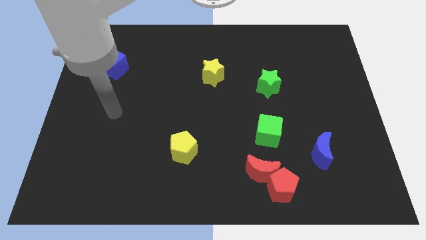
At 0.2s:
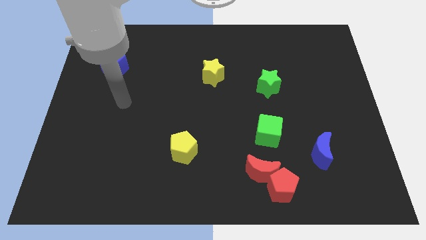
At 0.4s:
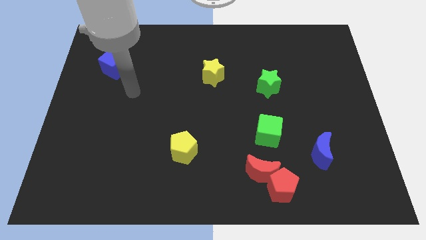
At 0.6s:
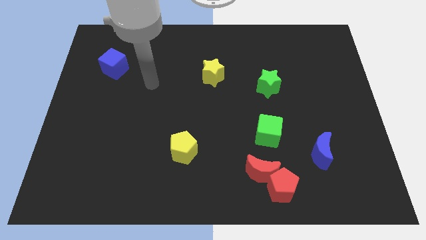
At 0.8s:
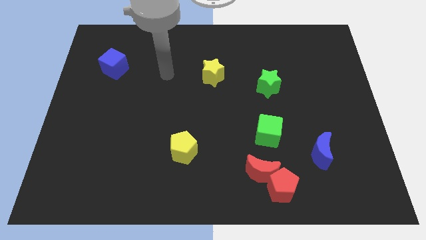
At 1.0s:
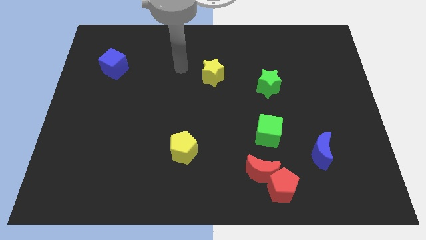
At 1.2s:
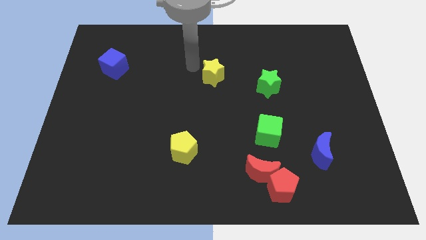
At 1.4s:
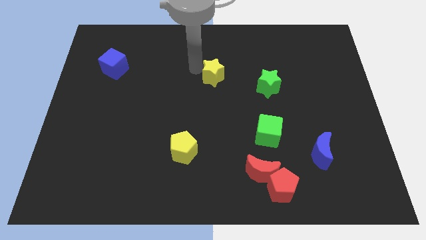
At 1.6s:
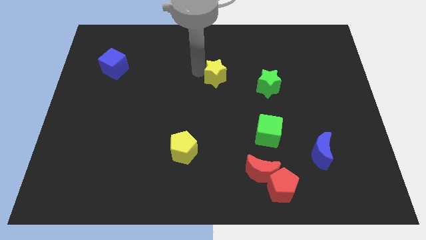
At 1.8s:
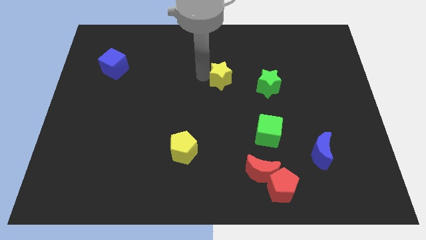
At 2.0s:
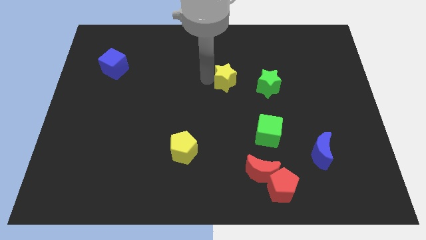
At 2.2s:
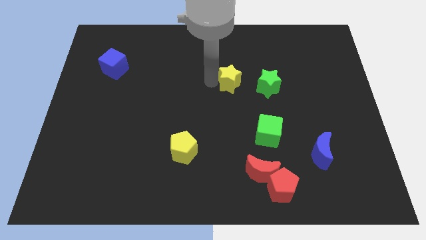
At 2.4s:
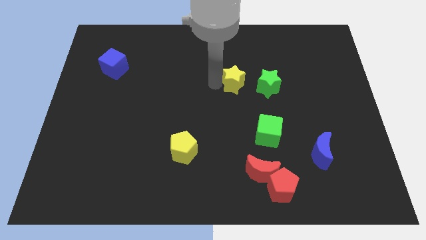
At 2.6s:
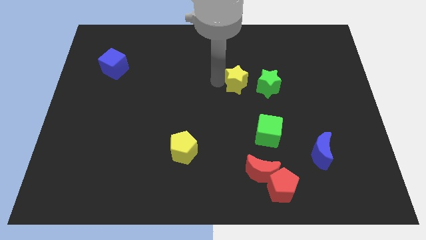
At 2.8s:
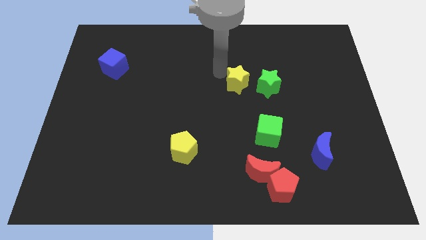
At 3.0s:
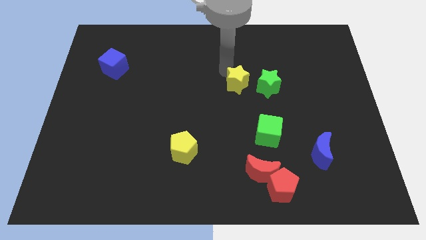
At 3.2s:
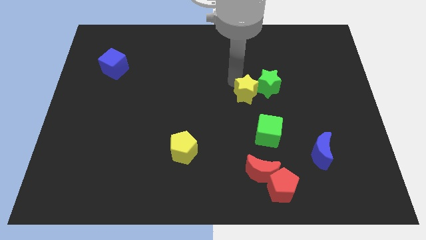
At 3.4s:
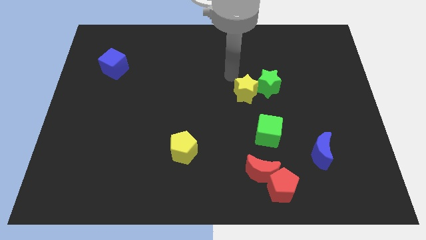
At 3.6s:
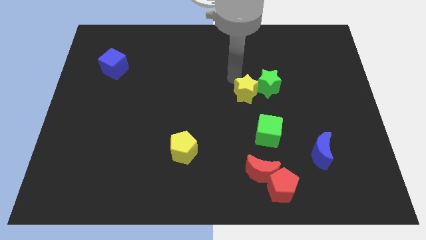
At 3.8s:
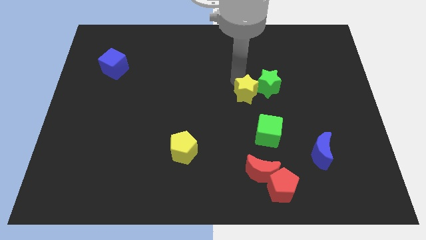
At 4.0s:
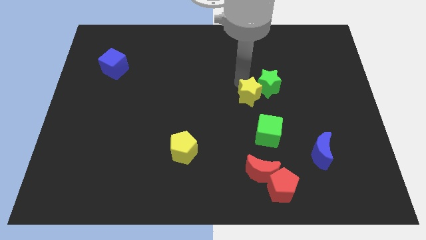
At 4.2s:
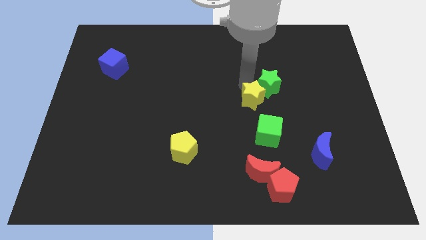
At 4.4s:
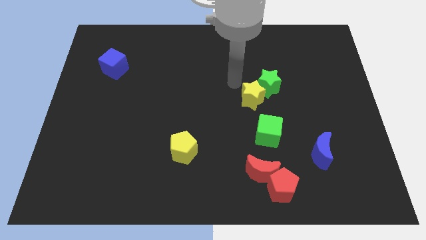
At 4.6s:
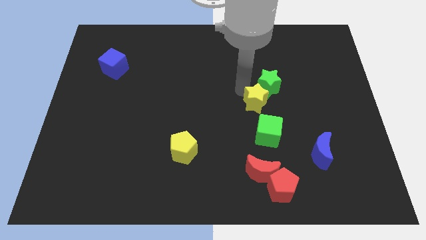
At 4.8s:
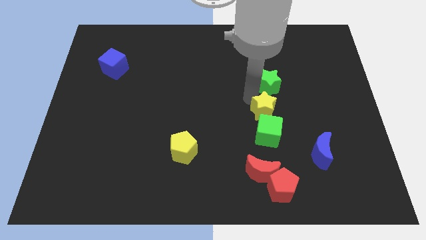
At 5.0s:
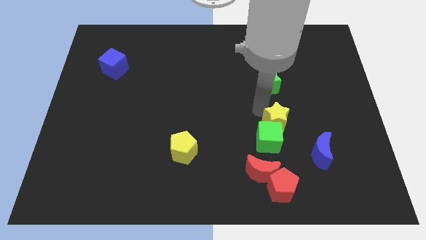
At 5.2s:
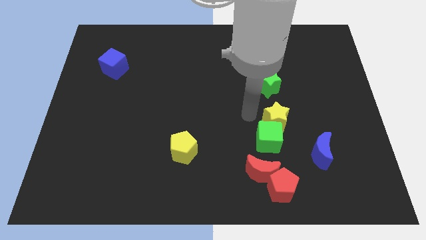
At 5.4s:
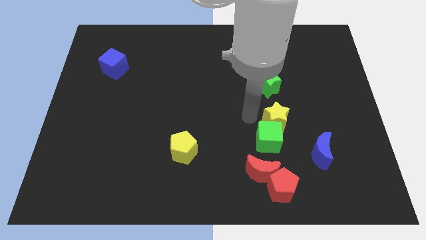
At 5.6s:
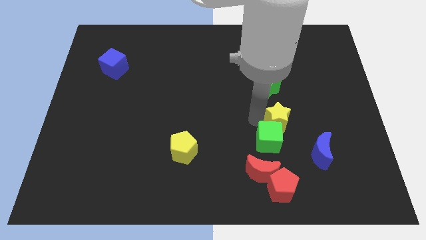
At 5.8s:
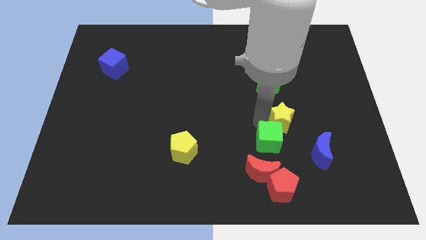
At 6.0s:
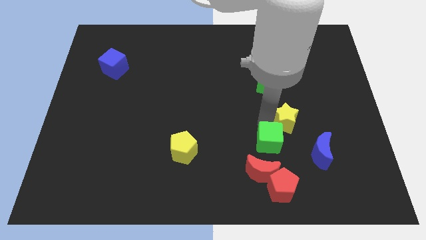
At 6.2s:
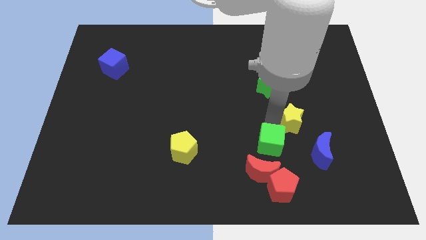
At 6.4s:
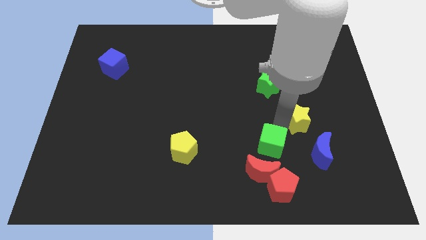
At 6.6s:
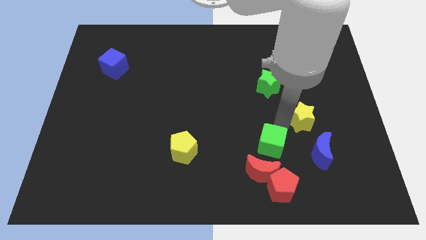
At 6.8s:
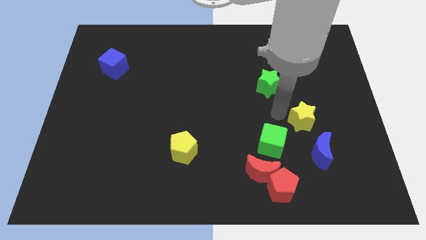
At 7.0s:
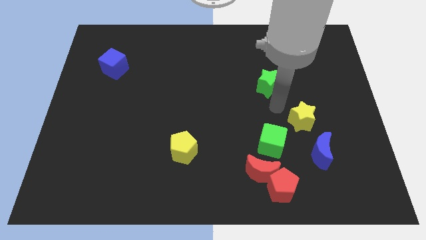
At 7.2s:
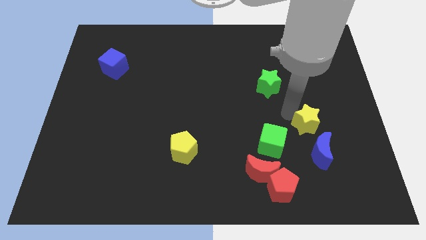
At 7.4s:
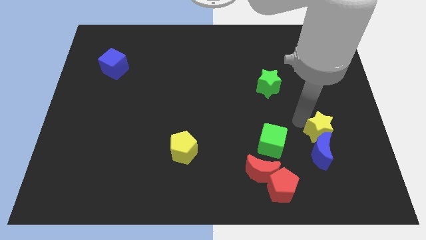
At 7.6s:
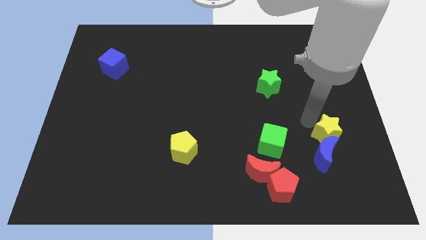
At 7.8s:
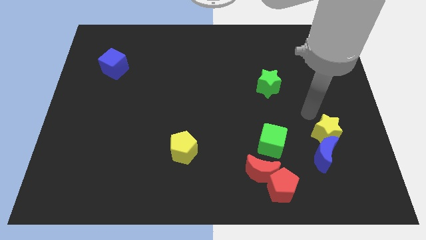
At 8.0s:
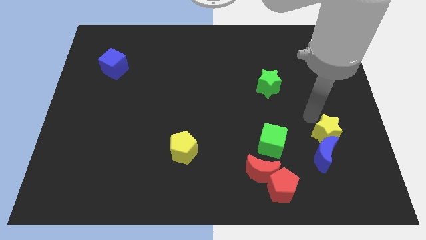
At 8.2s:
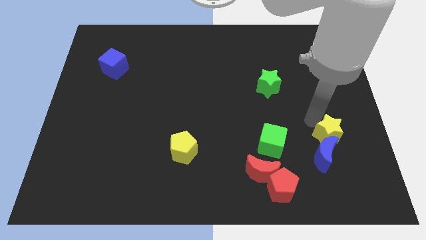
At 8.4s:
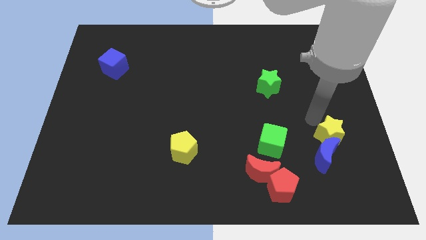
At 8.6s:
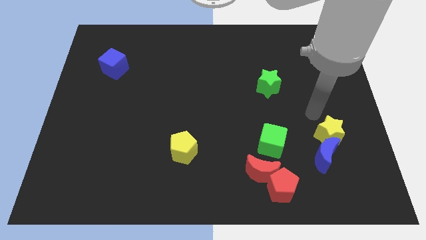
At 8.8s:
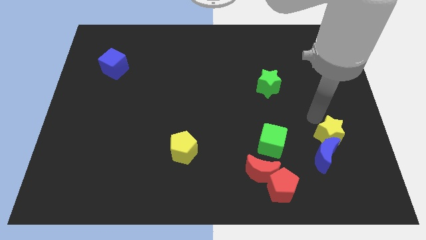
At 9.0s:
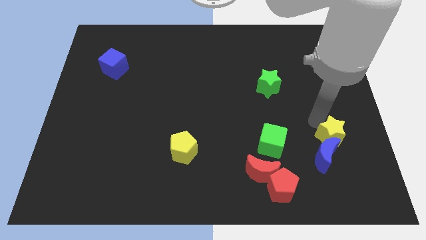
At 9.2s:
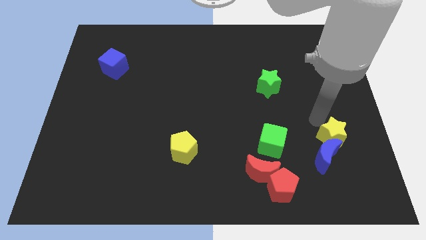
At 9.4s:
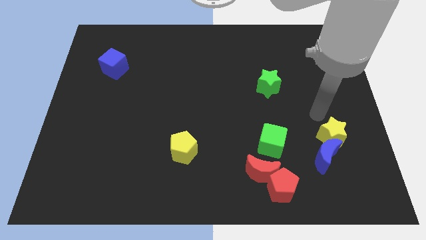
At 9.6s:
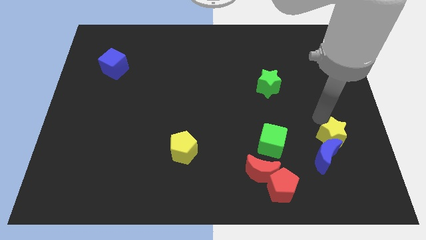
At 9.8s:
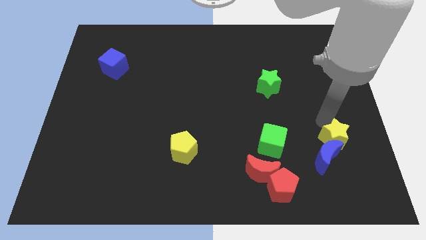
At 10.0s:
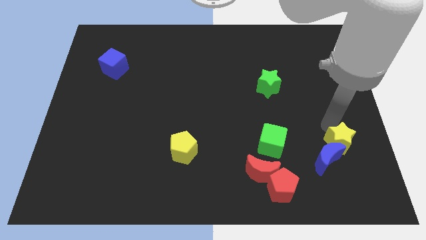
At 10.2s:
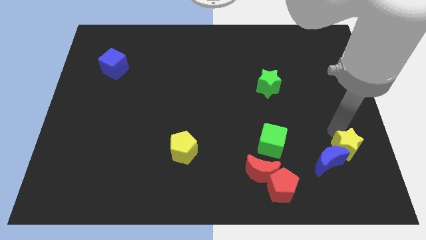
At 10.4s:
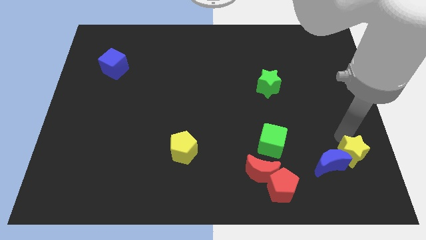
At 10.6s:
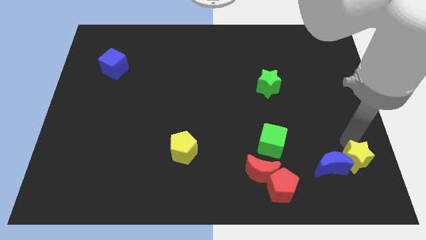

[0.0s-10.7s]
push the yellow star to the bottom right of the blue moon

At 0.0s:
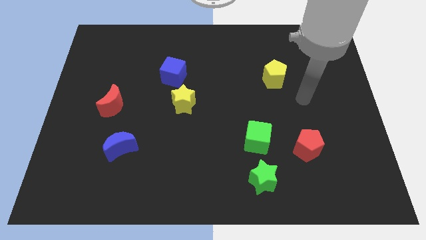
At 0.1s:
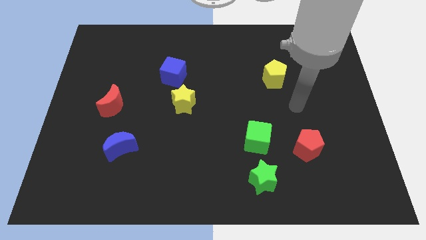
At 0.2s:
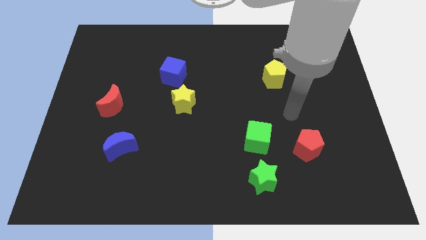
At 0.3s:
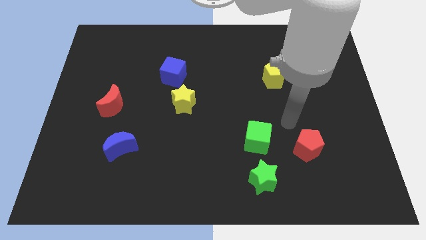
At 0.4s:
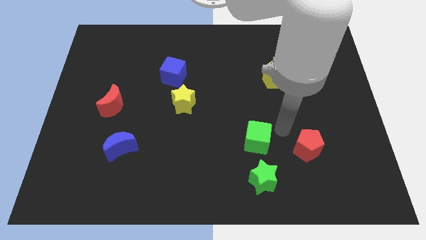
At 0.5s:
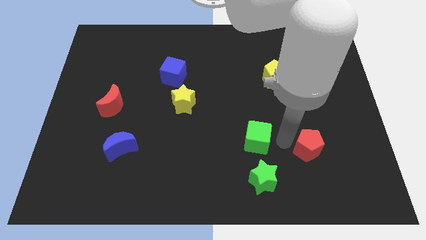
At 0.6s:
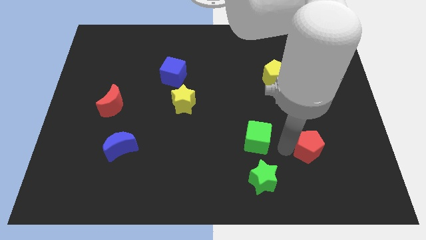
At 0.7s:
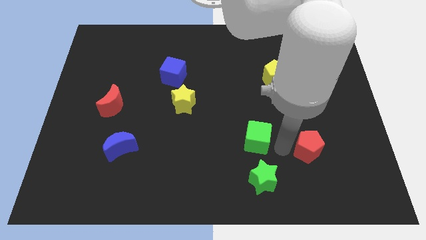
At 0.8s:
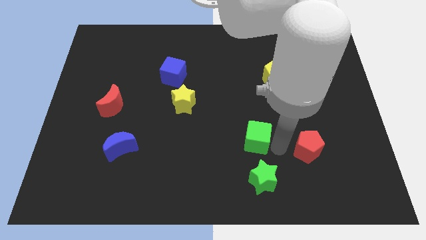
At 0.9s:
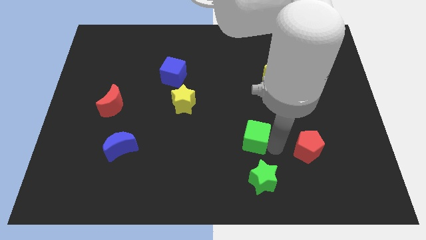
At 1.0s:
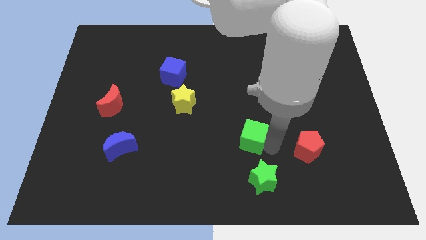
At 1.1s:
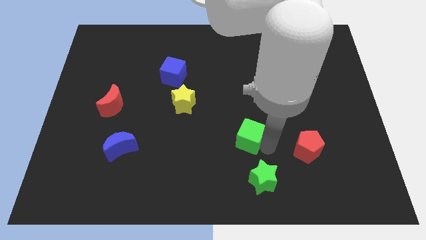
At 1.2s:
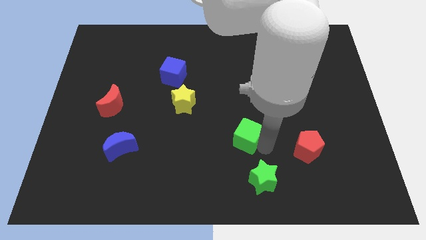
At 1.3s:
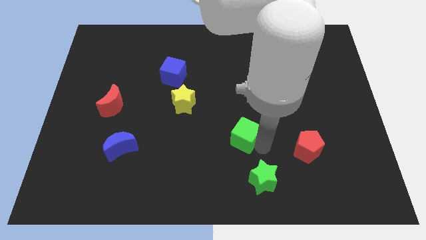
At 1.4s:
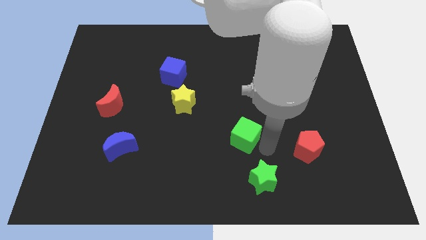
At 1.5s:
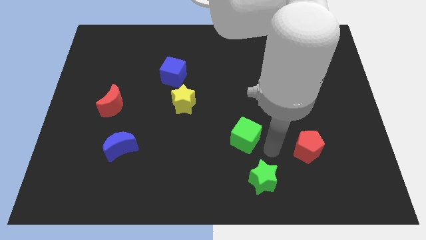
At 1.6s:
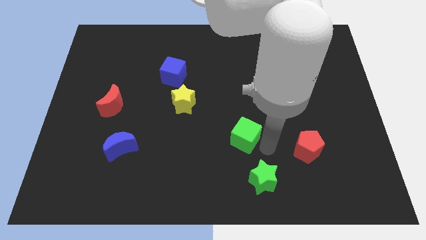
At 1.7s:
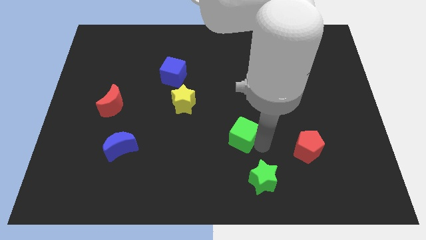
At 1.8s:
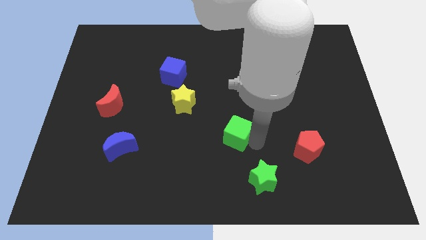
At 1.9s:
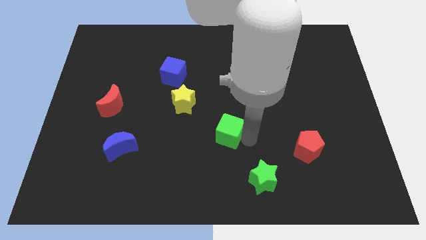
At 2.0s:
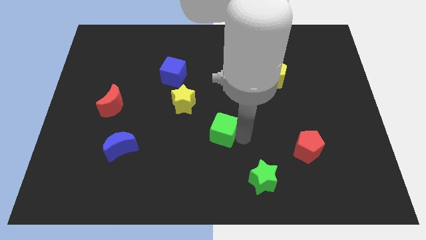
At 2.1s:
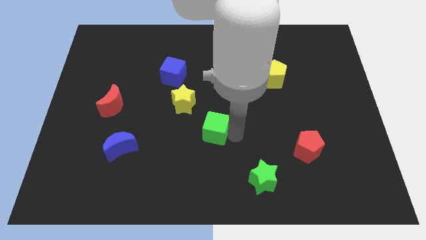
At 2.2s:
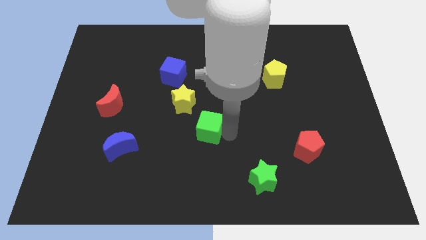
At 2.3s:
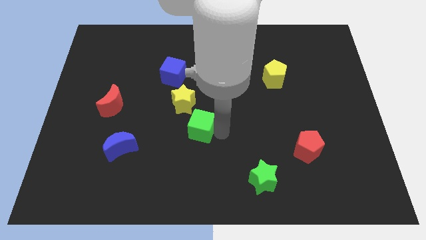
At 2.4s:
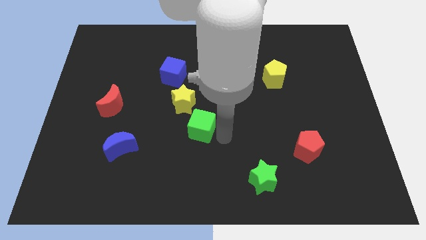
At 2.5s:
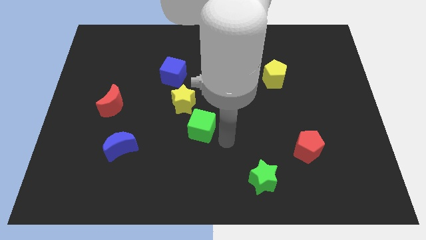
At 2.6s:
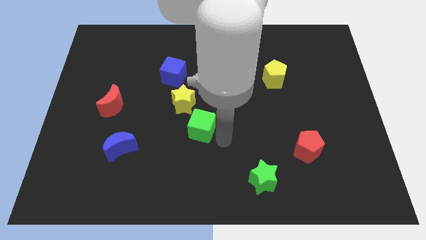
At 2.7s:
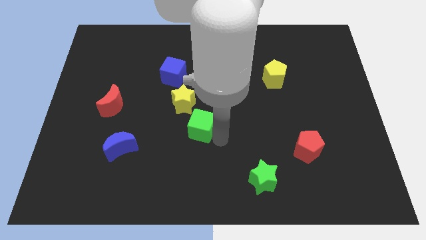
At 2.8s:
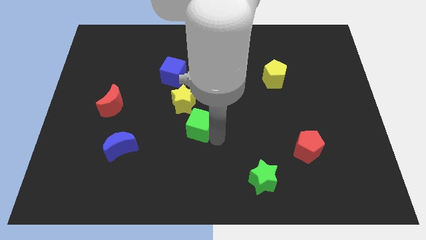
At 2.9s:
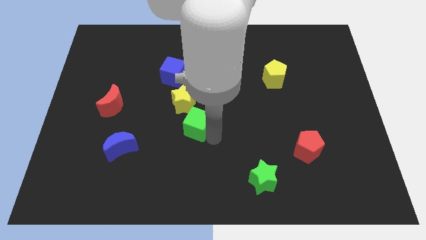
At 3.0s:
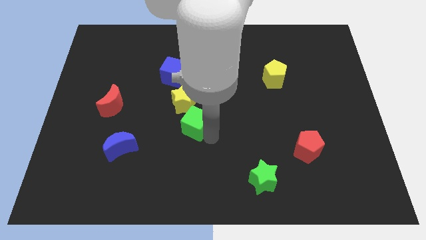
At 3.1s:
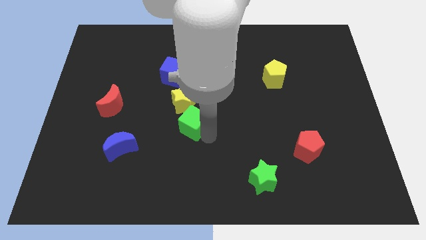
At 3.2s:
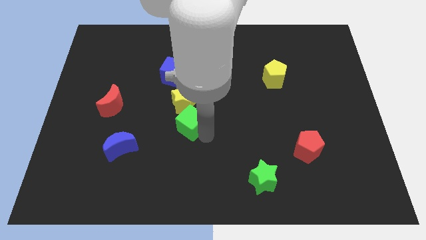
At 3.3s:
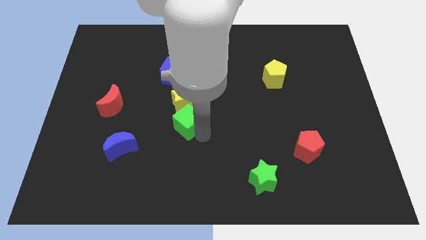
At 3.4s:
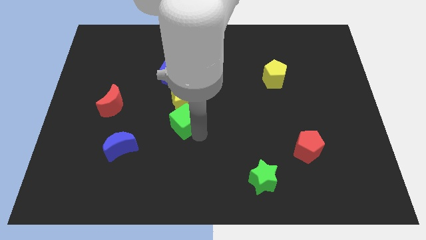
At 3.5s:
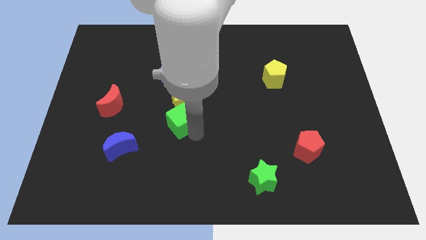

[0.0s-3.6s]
slide the green cube to the bottom of the blue cube
